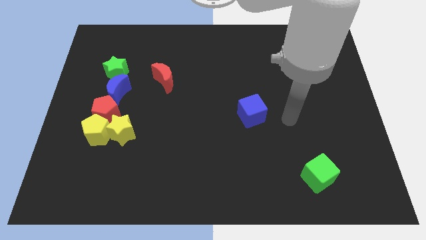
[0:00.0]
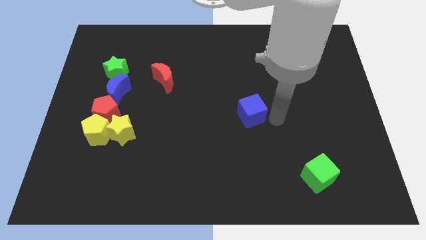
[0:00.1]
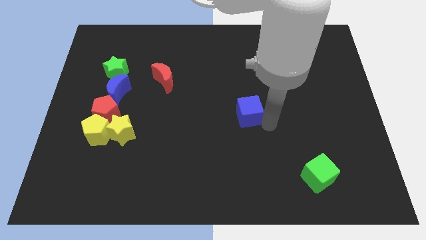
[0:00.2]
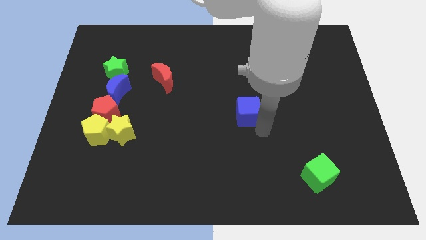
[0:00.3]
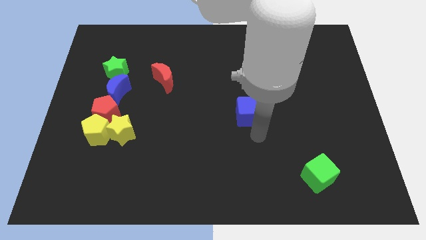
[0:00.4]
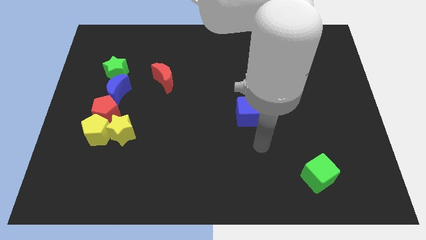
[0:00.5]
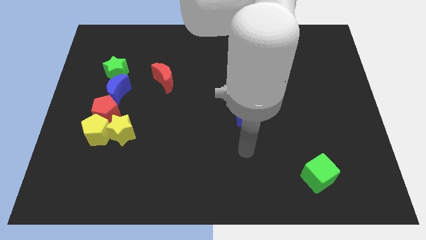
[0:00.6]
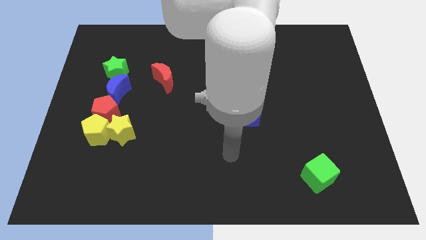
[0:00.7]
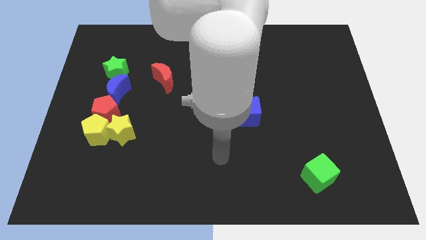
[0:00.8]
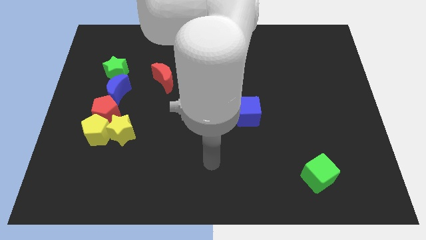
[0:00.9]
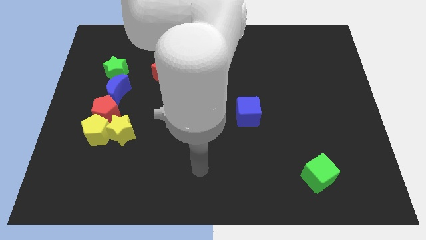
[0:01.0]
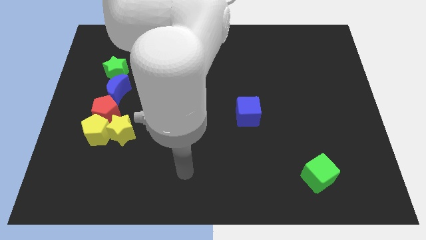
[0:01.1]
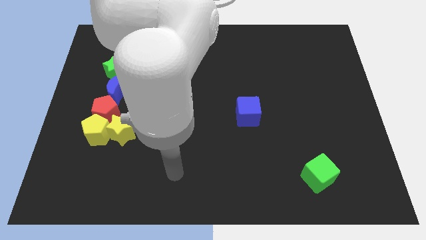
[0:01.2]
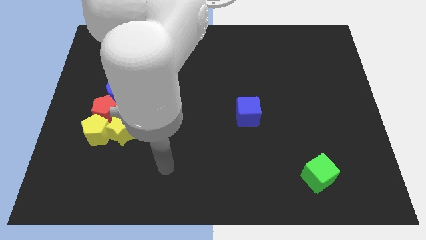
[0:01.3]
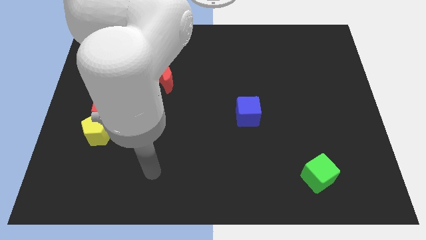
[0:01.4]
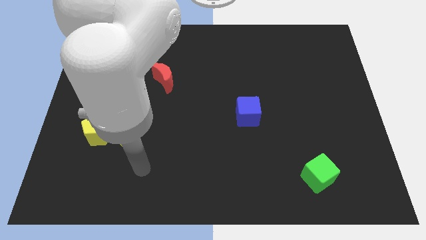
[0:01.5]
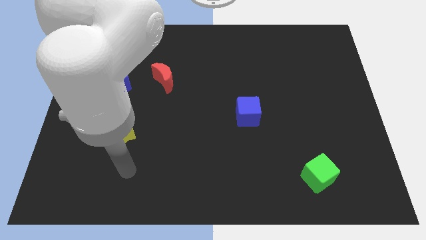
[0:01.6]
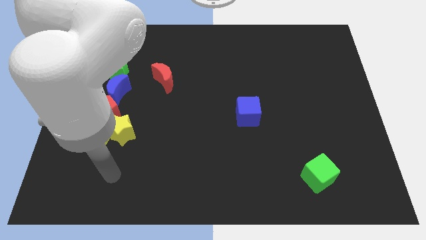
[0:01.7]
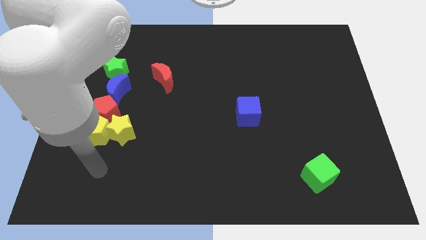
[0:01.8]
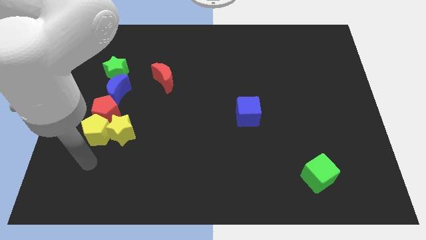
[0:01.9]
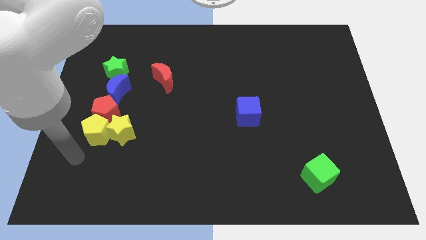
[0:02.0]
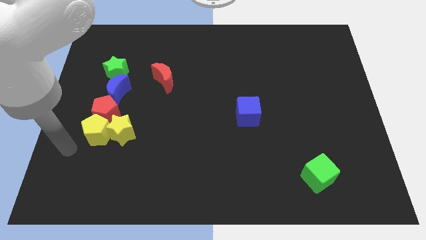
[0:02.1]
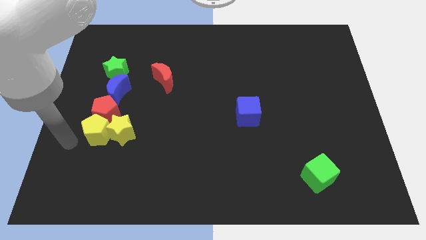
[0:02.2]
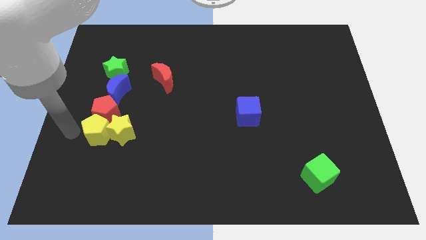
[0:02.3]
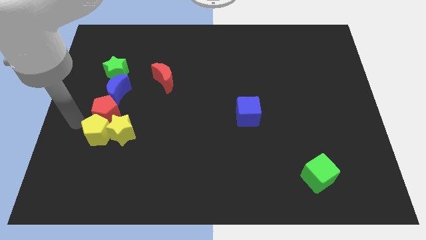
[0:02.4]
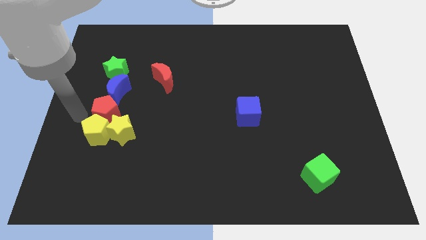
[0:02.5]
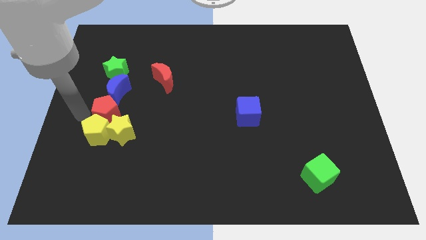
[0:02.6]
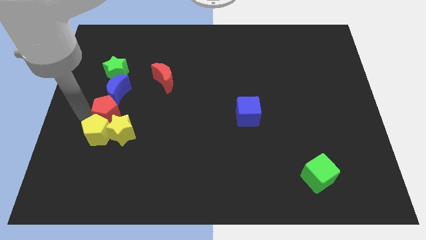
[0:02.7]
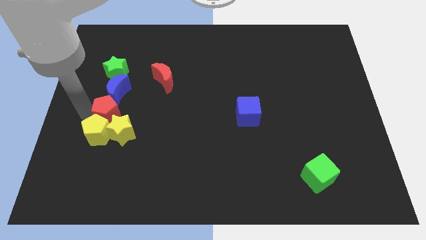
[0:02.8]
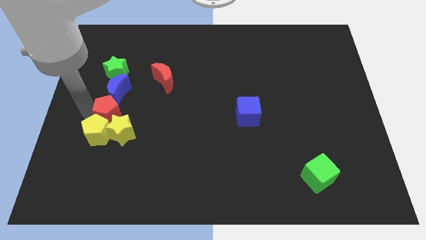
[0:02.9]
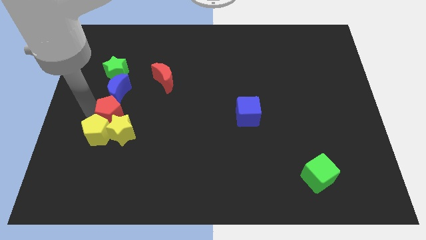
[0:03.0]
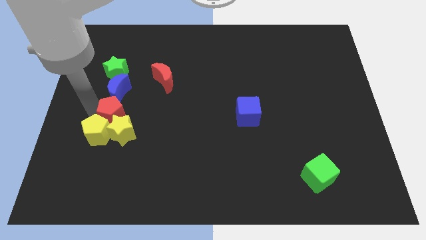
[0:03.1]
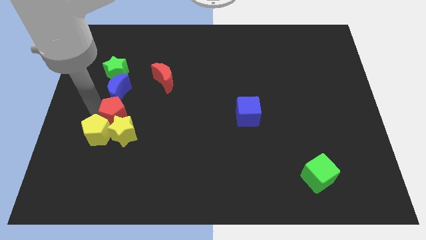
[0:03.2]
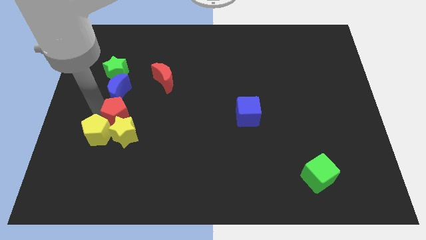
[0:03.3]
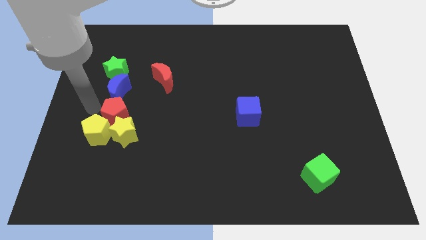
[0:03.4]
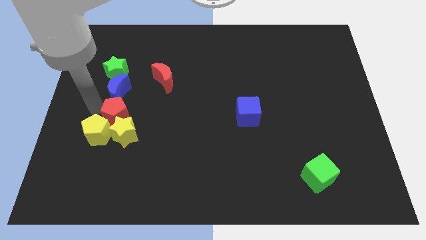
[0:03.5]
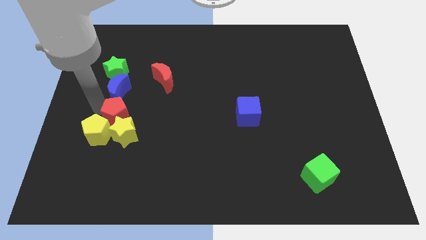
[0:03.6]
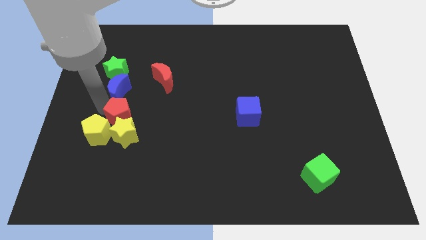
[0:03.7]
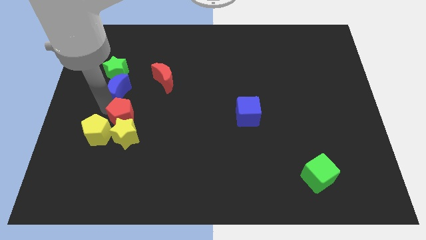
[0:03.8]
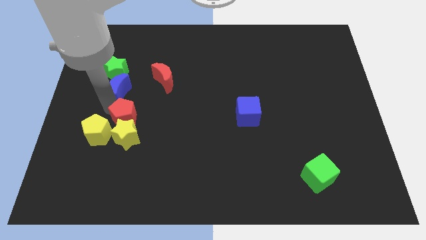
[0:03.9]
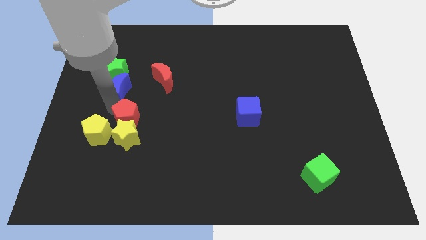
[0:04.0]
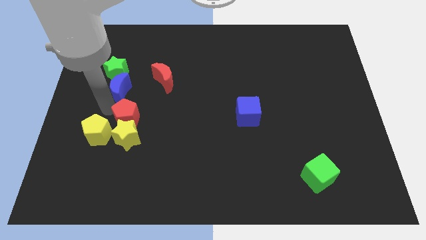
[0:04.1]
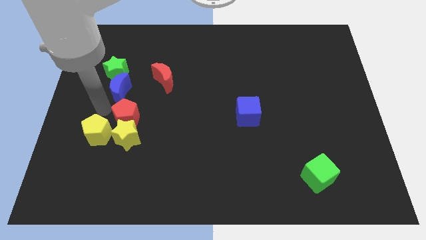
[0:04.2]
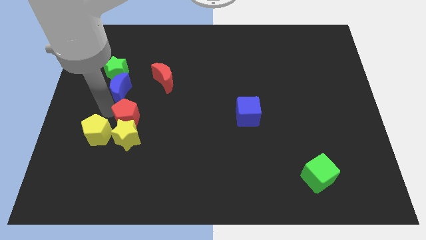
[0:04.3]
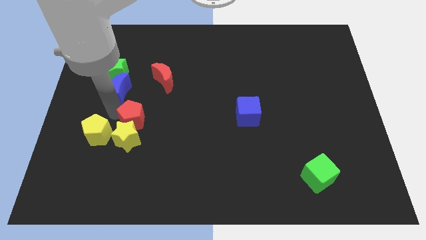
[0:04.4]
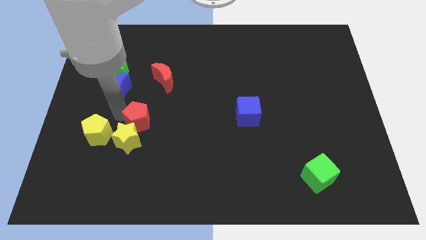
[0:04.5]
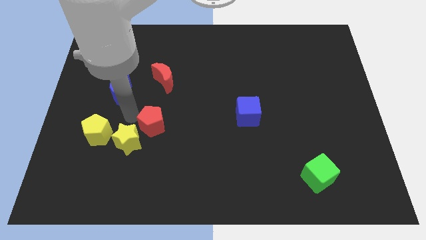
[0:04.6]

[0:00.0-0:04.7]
slide the red pentagon to the right of the yellow star

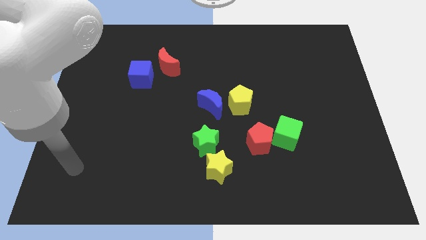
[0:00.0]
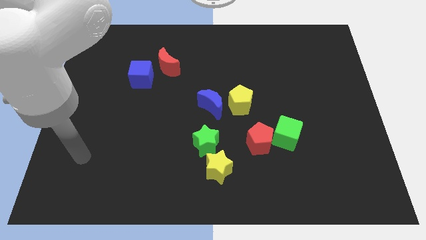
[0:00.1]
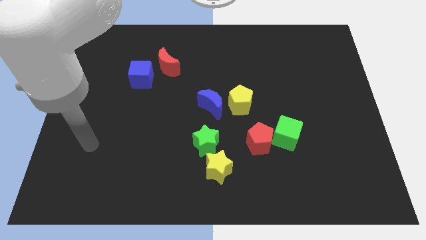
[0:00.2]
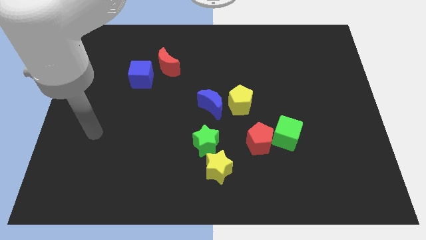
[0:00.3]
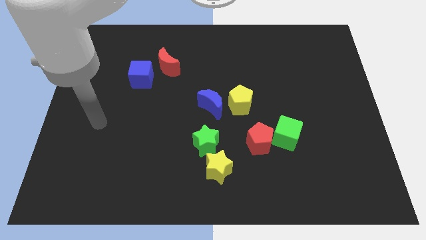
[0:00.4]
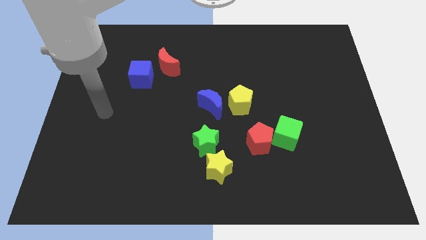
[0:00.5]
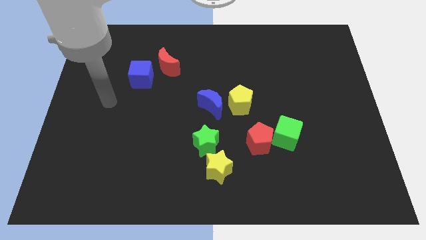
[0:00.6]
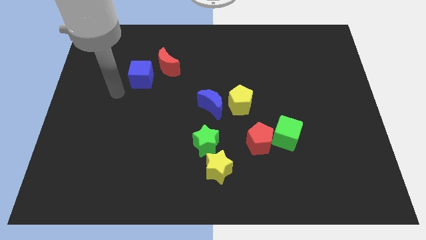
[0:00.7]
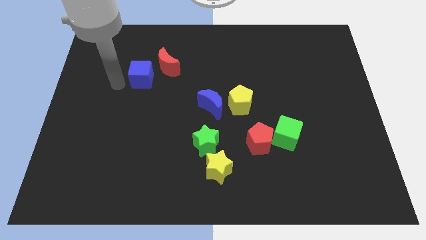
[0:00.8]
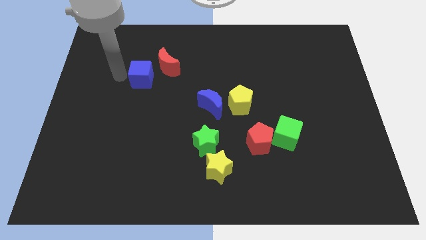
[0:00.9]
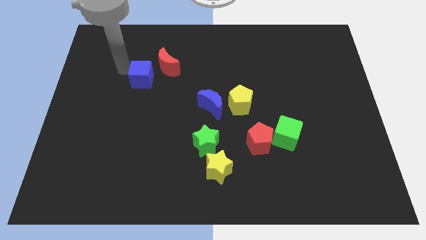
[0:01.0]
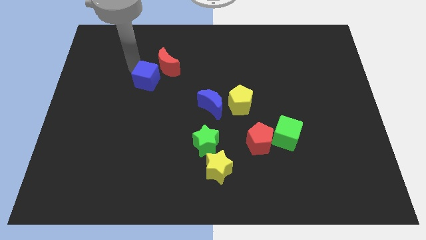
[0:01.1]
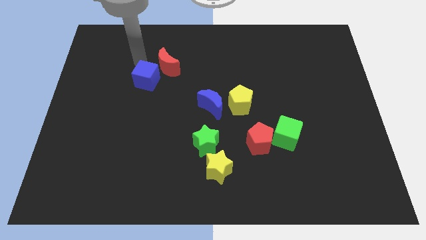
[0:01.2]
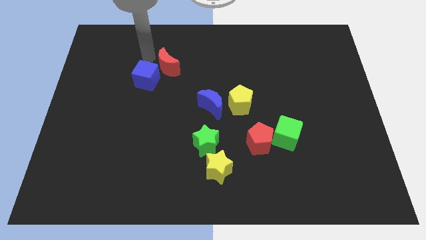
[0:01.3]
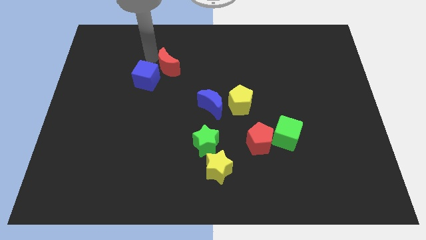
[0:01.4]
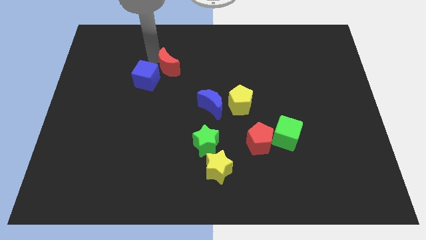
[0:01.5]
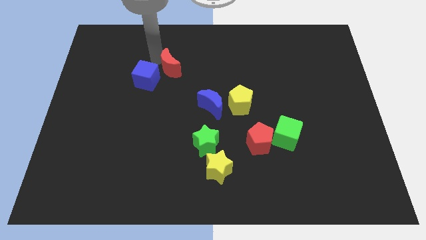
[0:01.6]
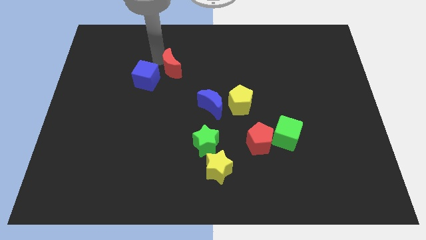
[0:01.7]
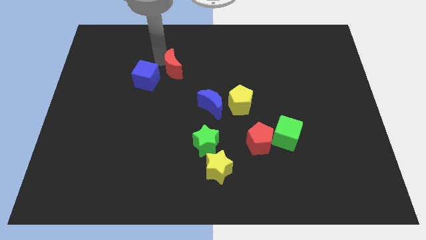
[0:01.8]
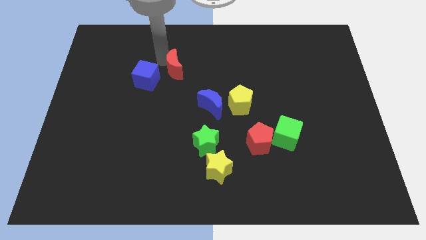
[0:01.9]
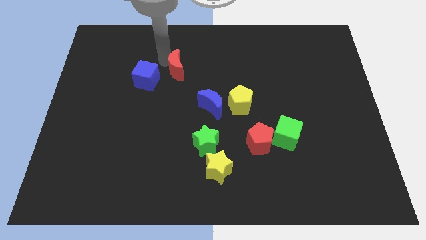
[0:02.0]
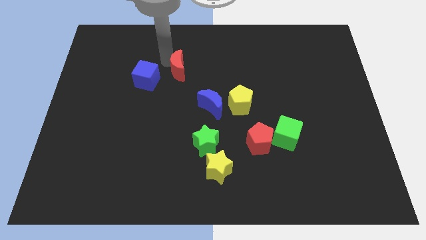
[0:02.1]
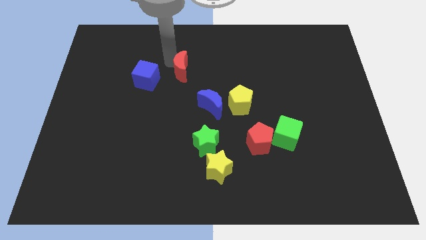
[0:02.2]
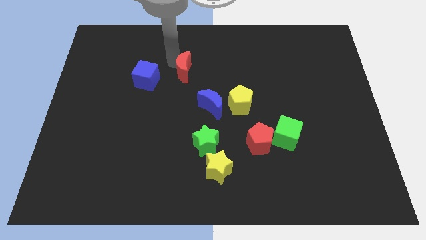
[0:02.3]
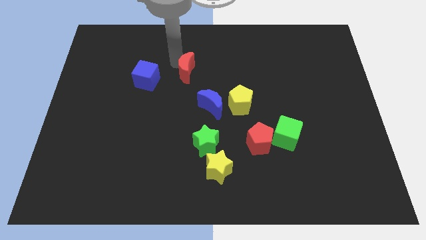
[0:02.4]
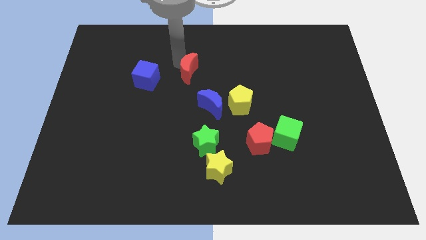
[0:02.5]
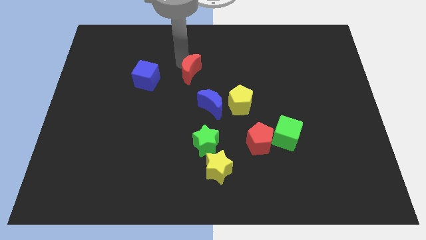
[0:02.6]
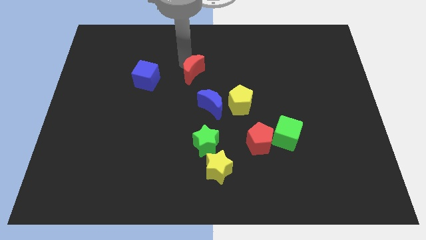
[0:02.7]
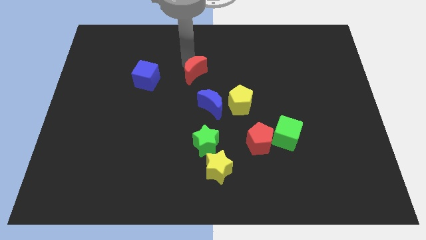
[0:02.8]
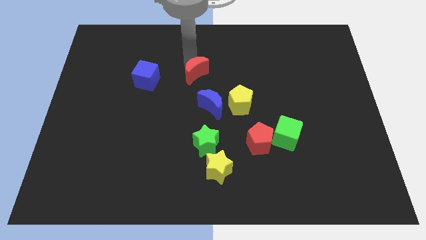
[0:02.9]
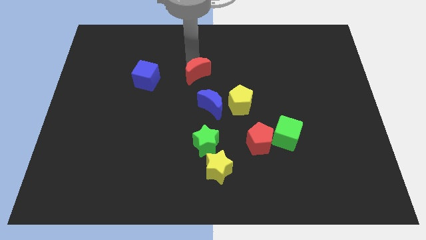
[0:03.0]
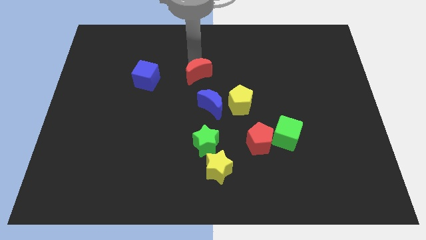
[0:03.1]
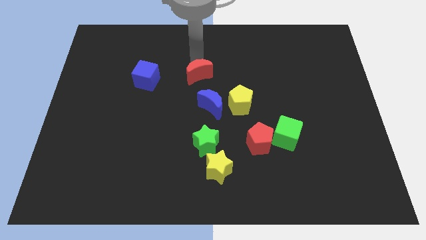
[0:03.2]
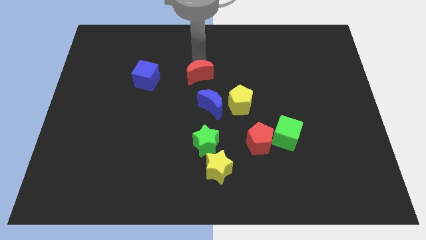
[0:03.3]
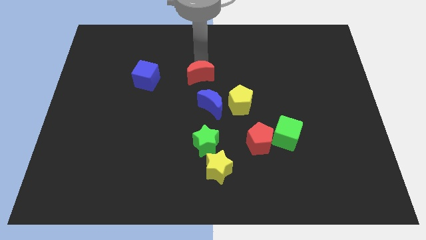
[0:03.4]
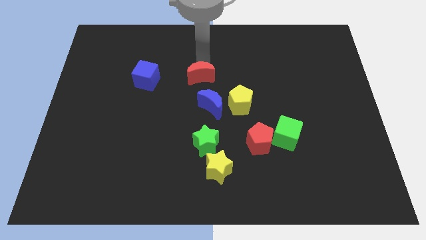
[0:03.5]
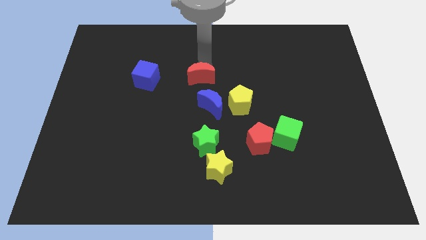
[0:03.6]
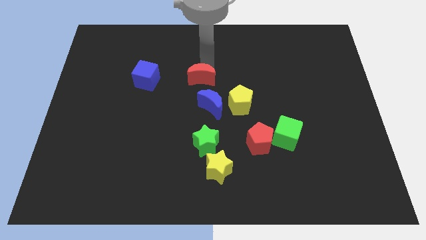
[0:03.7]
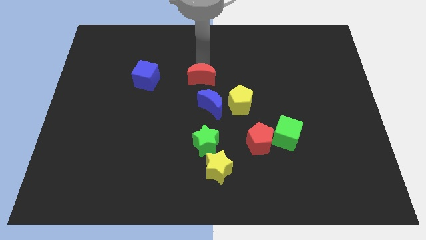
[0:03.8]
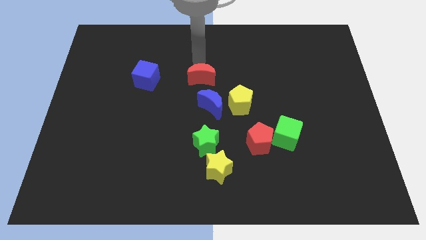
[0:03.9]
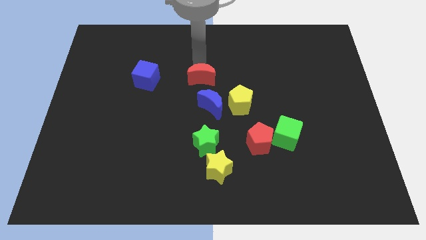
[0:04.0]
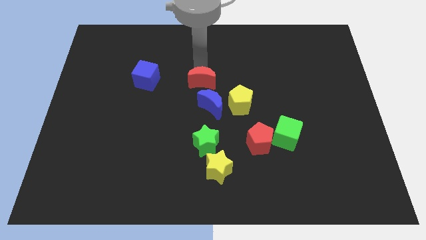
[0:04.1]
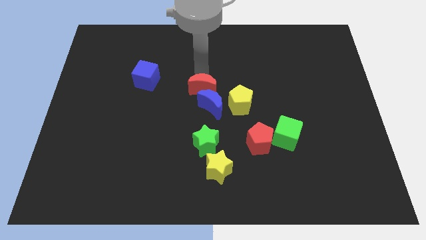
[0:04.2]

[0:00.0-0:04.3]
slide the red moon above the green star
